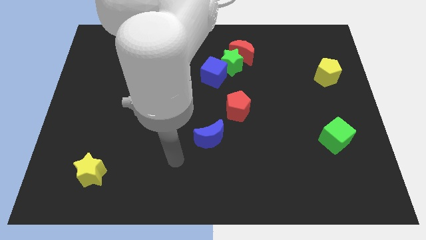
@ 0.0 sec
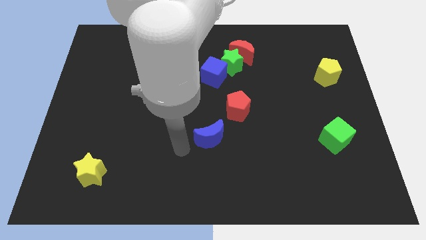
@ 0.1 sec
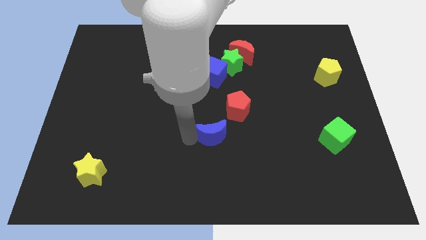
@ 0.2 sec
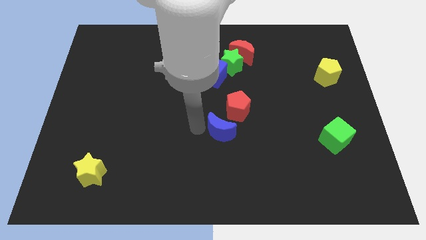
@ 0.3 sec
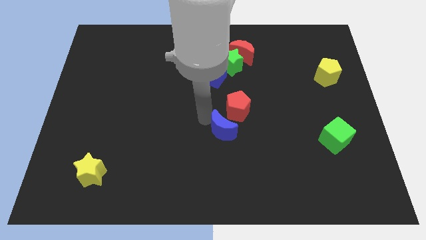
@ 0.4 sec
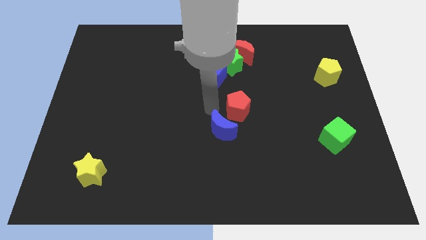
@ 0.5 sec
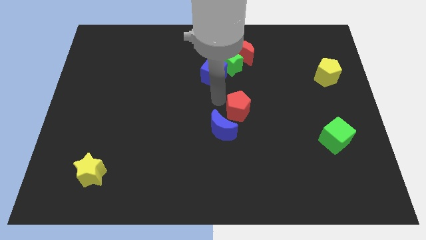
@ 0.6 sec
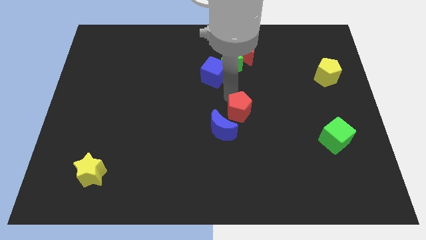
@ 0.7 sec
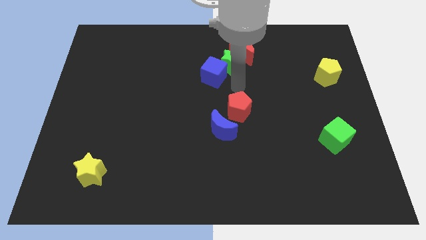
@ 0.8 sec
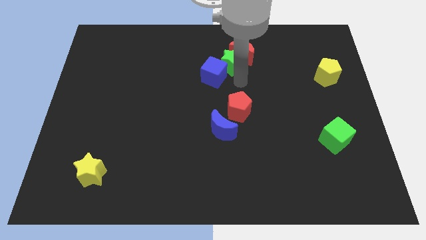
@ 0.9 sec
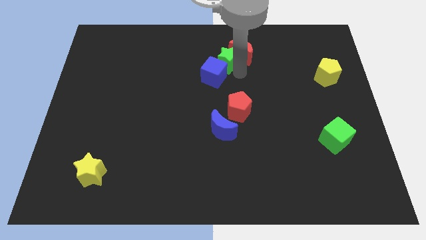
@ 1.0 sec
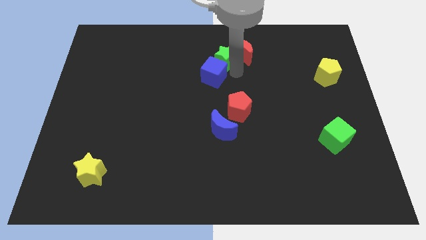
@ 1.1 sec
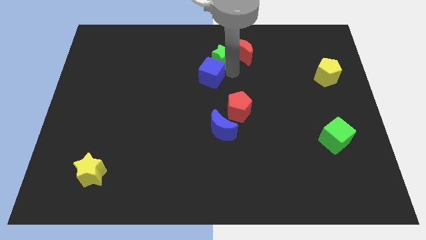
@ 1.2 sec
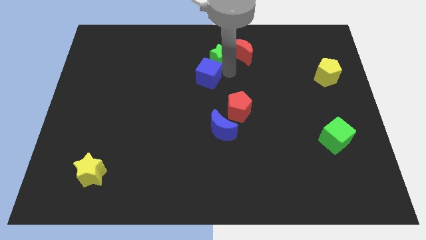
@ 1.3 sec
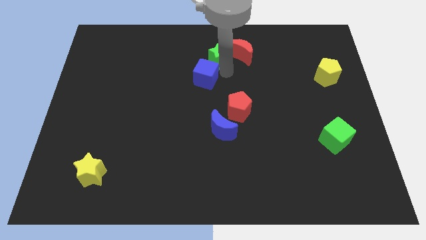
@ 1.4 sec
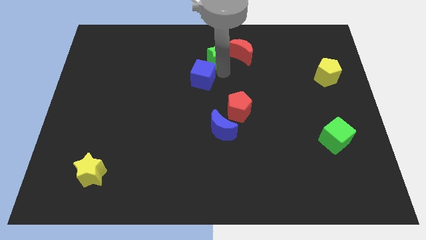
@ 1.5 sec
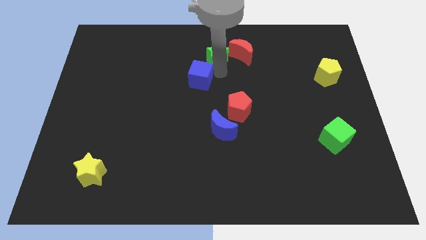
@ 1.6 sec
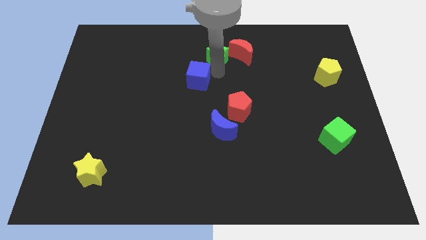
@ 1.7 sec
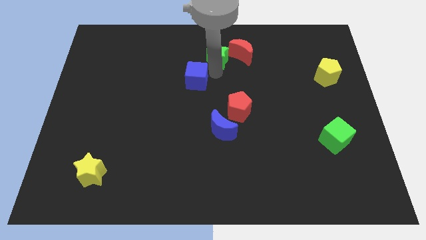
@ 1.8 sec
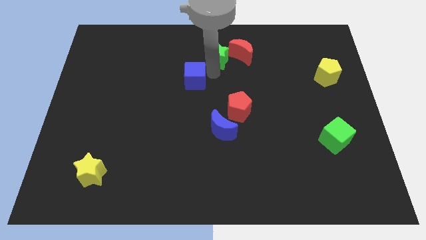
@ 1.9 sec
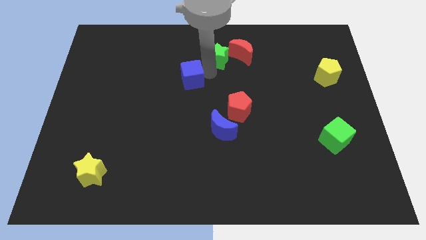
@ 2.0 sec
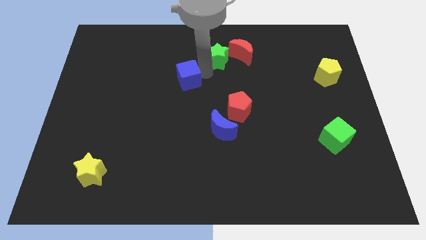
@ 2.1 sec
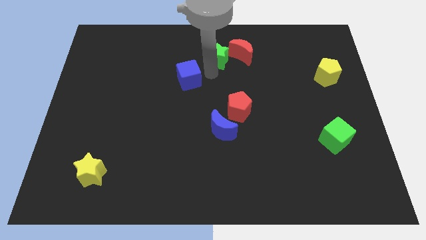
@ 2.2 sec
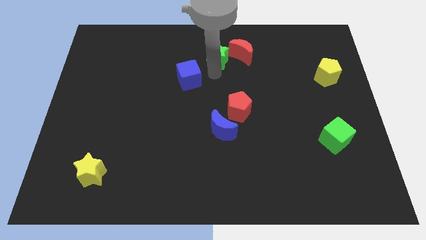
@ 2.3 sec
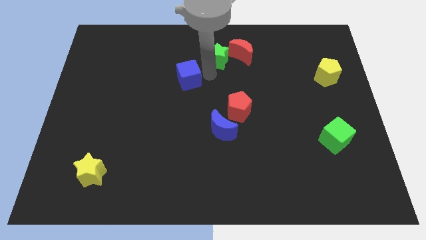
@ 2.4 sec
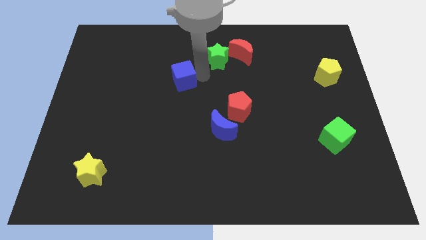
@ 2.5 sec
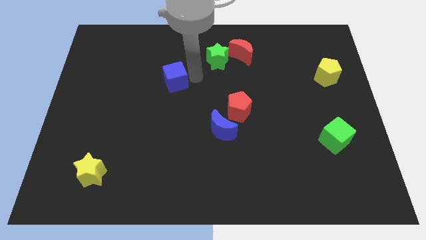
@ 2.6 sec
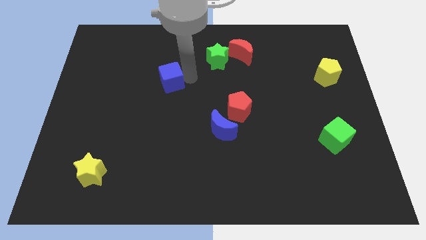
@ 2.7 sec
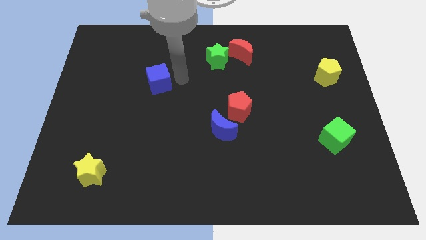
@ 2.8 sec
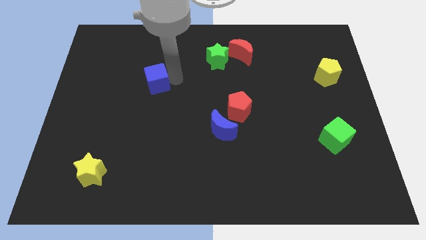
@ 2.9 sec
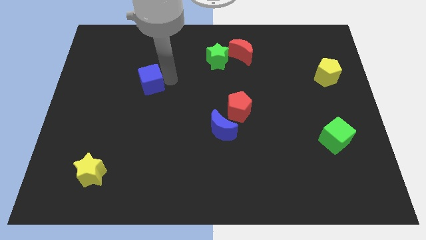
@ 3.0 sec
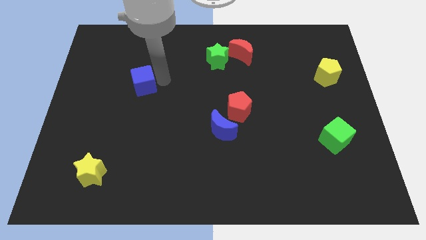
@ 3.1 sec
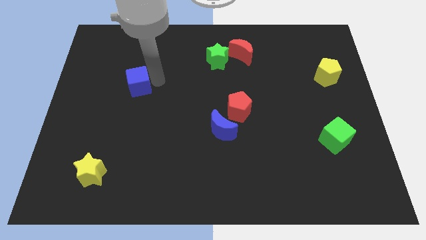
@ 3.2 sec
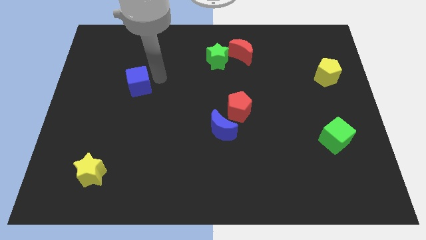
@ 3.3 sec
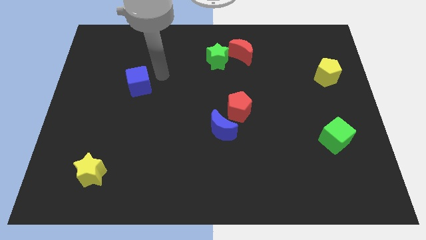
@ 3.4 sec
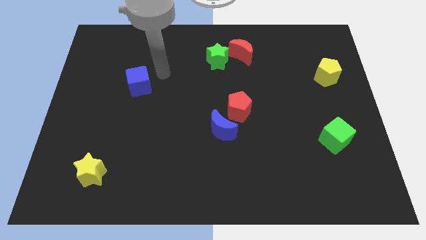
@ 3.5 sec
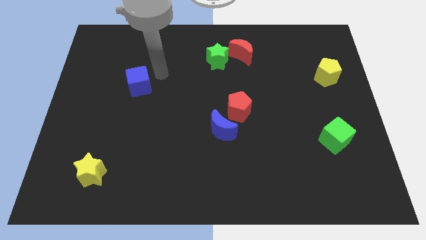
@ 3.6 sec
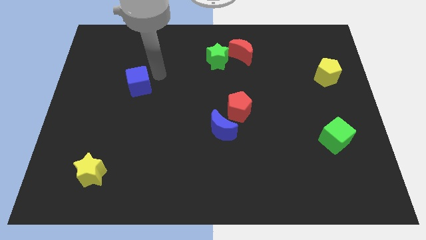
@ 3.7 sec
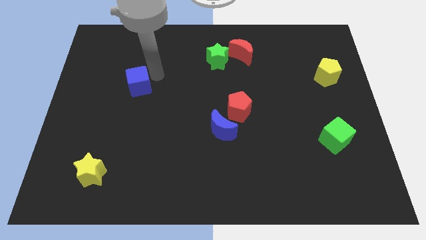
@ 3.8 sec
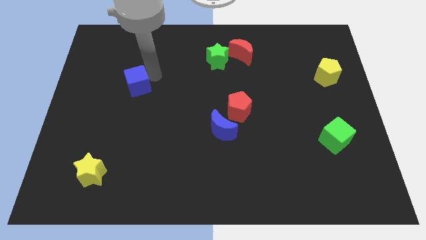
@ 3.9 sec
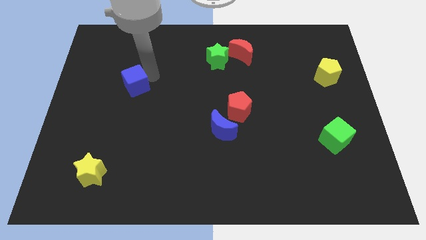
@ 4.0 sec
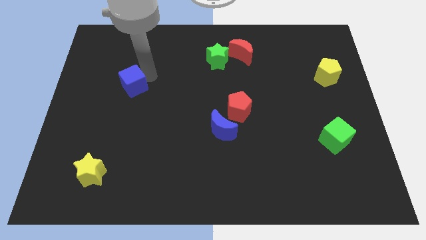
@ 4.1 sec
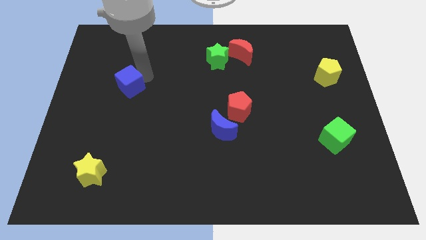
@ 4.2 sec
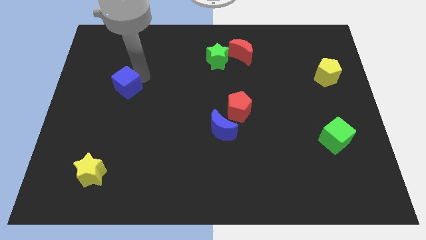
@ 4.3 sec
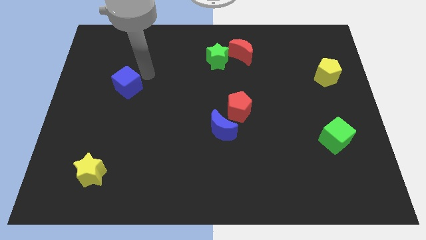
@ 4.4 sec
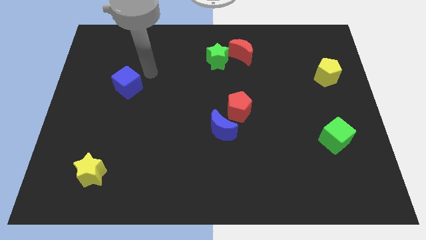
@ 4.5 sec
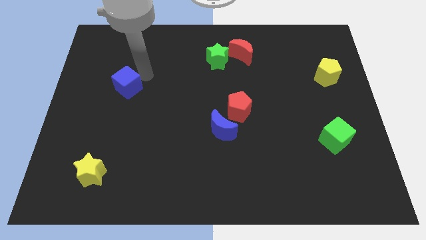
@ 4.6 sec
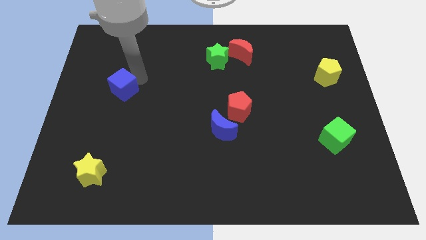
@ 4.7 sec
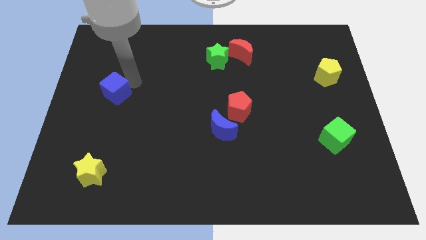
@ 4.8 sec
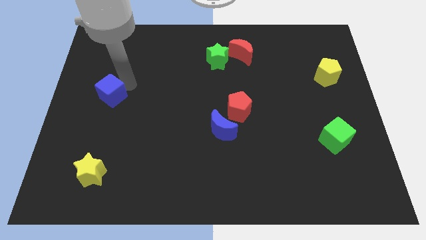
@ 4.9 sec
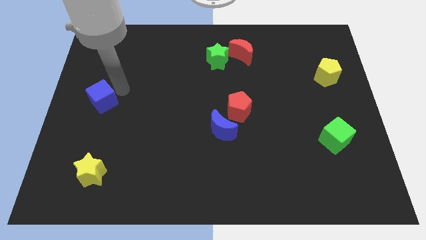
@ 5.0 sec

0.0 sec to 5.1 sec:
push the blue cube to the center left

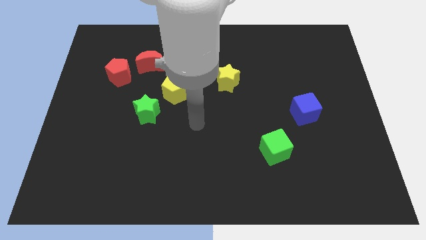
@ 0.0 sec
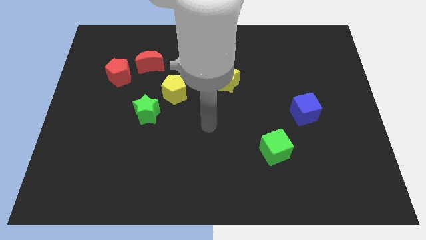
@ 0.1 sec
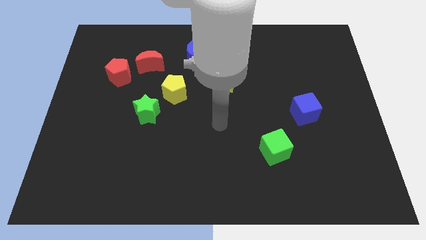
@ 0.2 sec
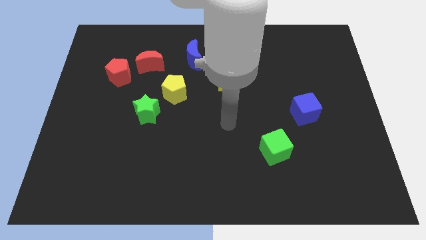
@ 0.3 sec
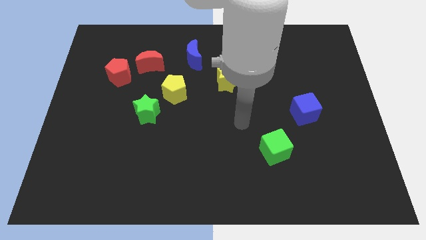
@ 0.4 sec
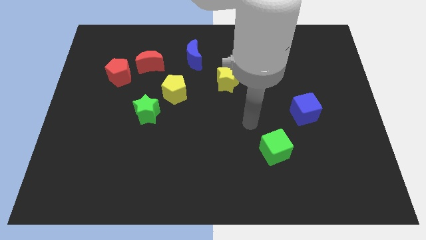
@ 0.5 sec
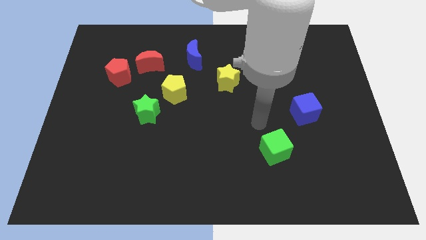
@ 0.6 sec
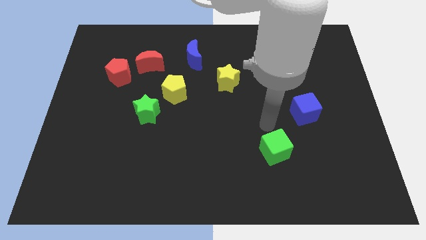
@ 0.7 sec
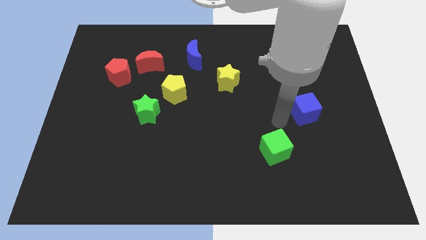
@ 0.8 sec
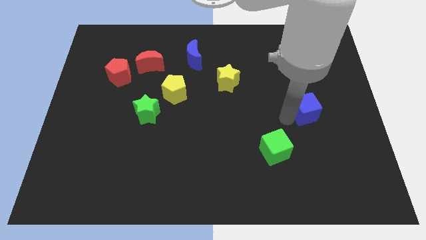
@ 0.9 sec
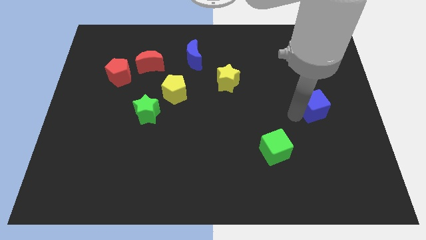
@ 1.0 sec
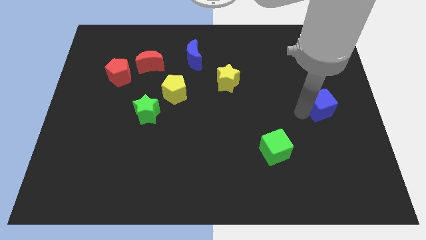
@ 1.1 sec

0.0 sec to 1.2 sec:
slide the blue cube to the center right
